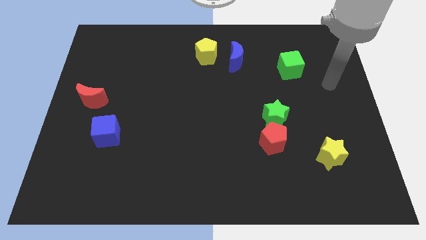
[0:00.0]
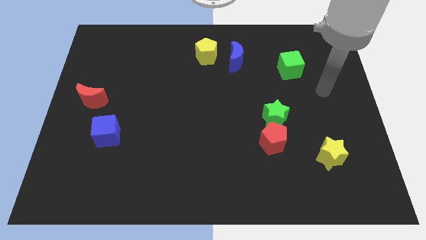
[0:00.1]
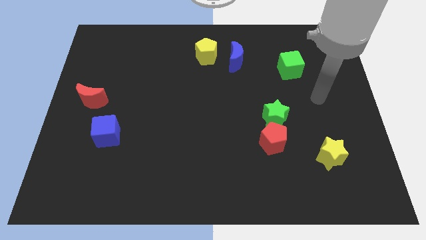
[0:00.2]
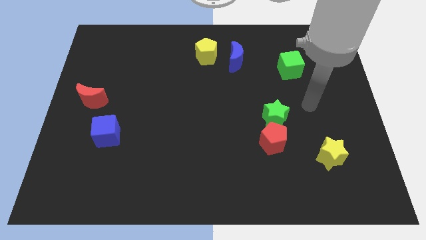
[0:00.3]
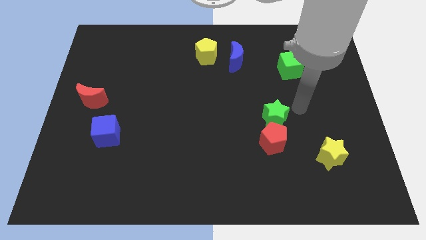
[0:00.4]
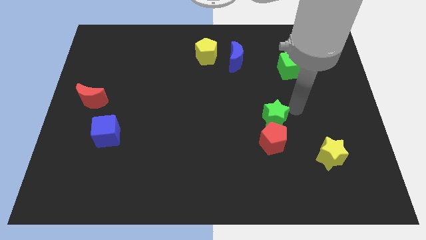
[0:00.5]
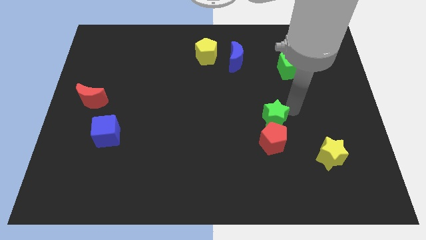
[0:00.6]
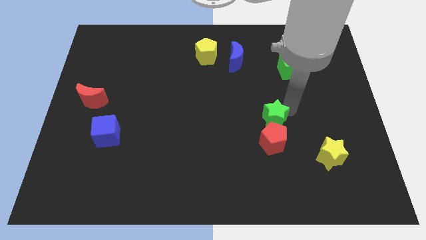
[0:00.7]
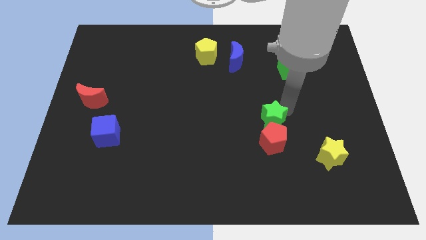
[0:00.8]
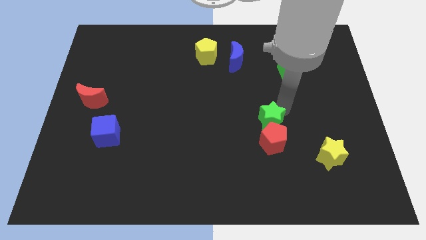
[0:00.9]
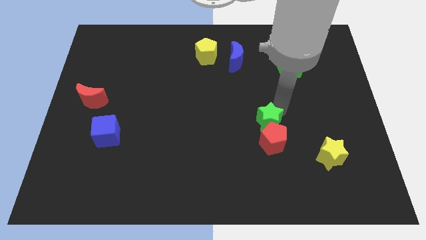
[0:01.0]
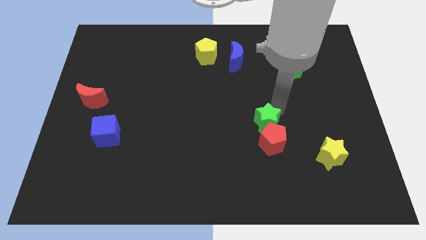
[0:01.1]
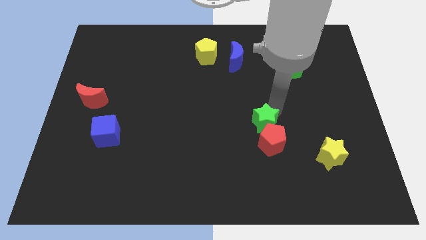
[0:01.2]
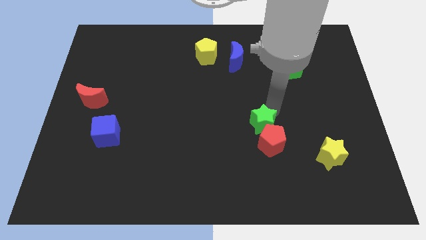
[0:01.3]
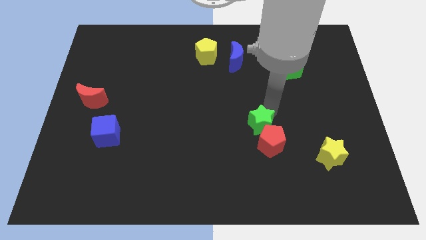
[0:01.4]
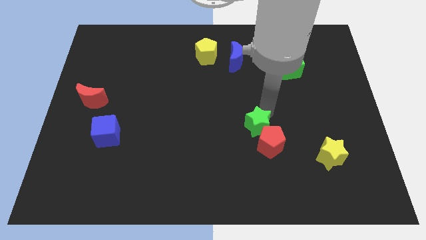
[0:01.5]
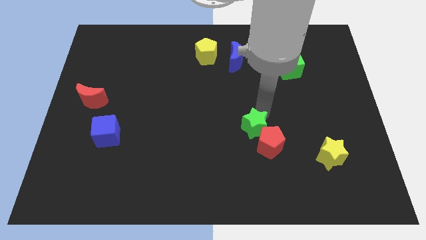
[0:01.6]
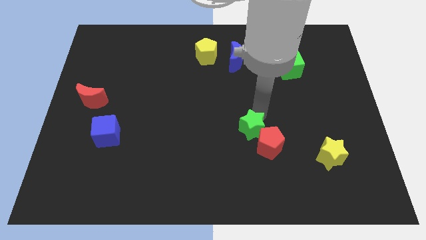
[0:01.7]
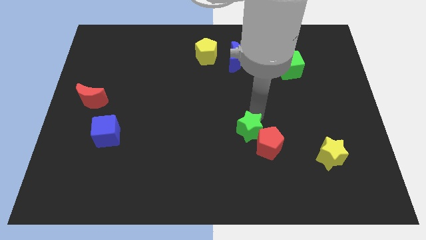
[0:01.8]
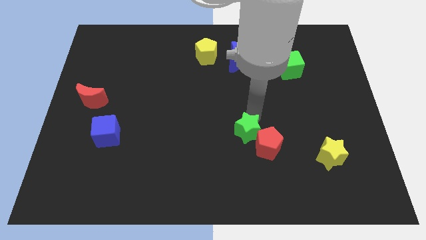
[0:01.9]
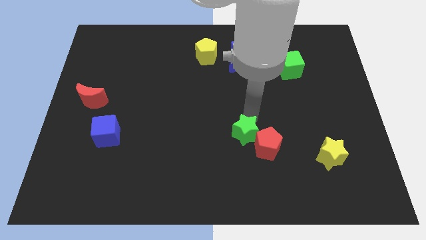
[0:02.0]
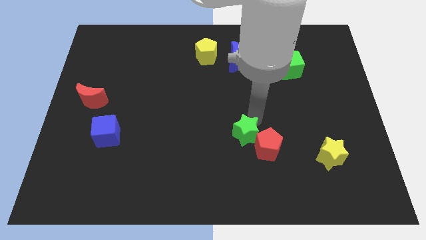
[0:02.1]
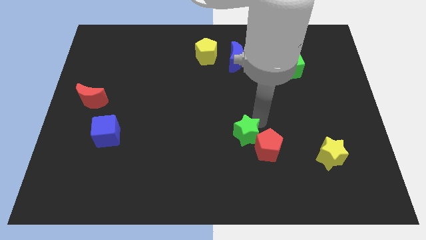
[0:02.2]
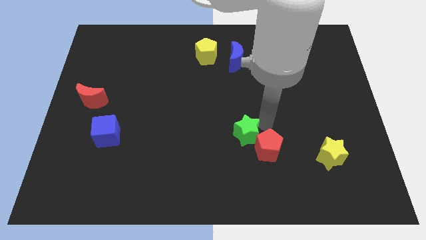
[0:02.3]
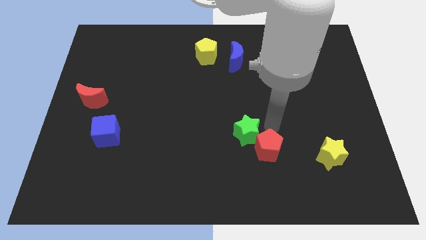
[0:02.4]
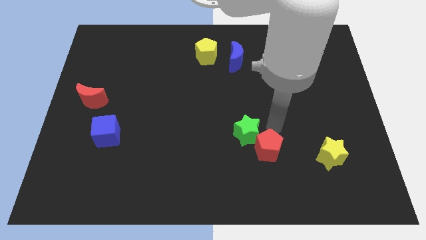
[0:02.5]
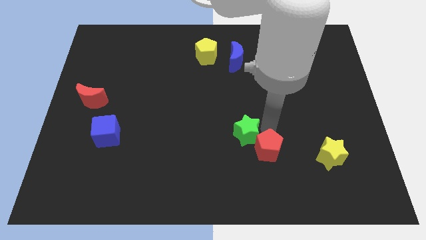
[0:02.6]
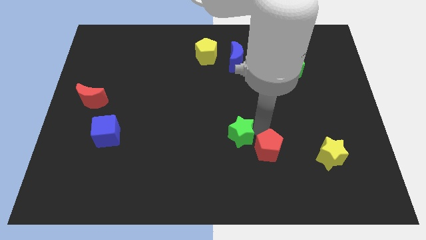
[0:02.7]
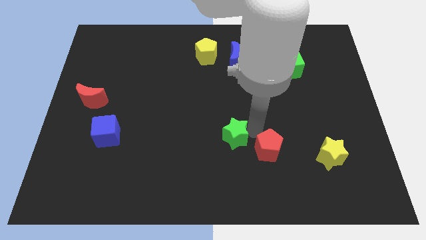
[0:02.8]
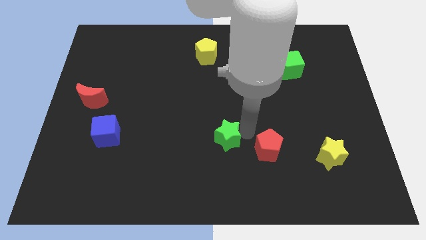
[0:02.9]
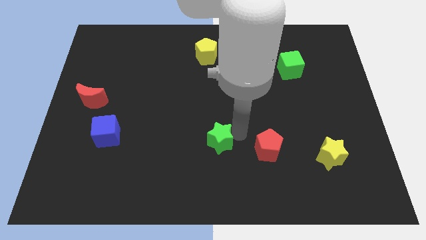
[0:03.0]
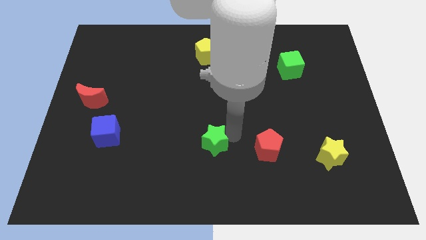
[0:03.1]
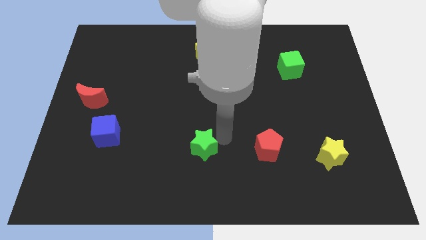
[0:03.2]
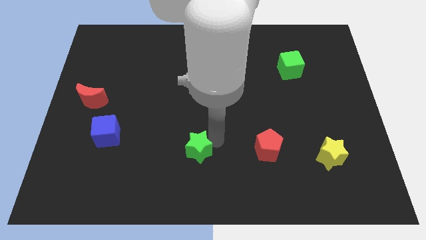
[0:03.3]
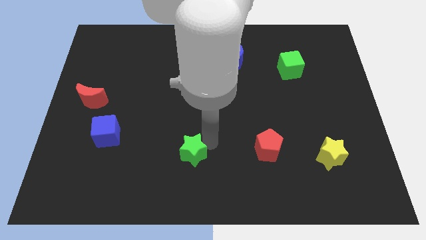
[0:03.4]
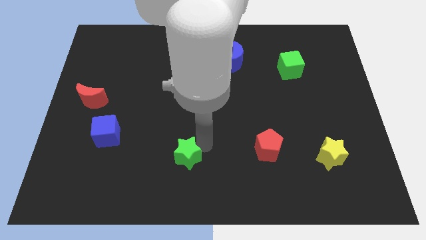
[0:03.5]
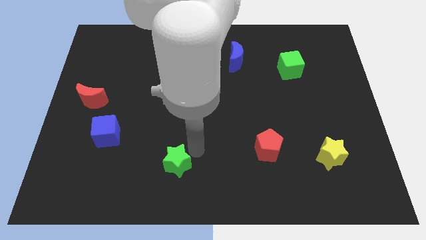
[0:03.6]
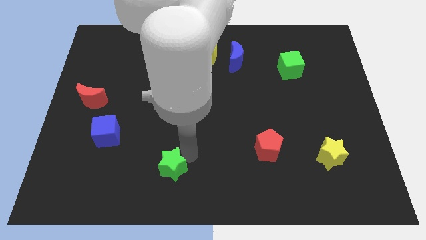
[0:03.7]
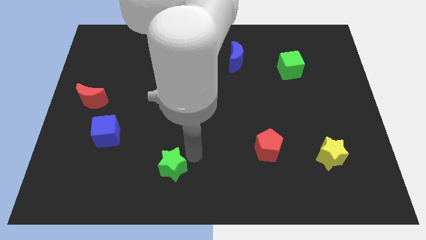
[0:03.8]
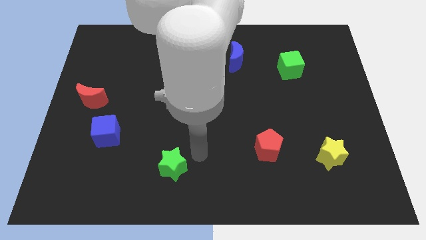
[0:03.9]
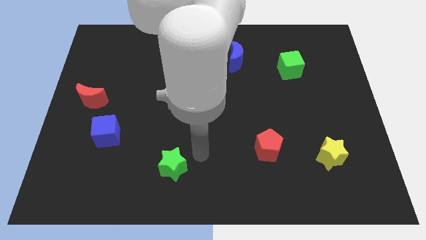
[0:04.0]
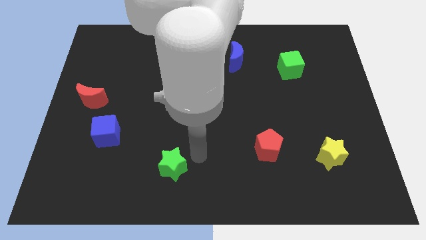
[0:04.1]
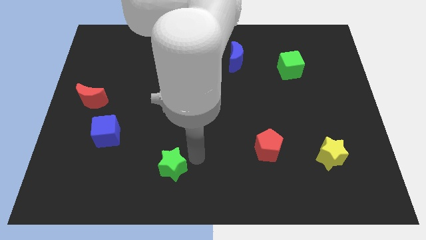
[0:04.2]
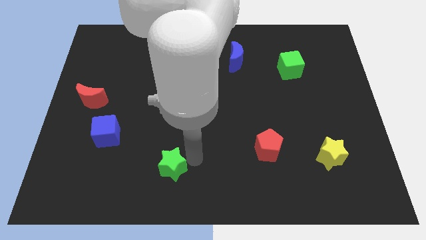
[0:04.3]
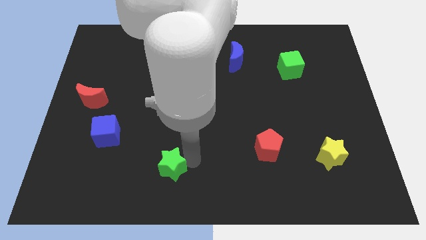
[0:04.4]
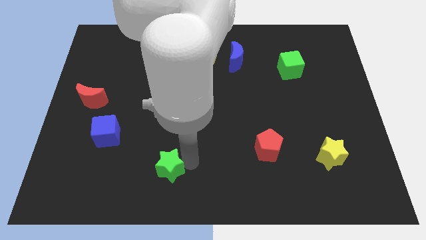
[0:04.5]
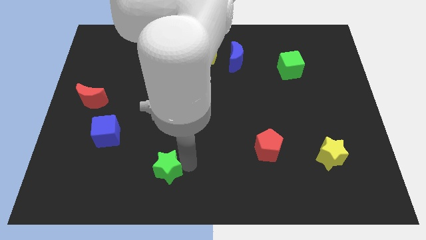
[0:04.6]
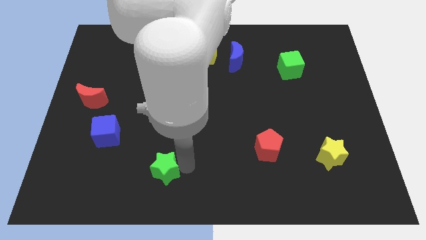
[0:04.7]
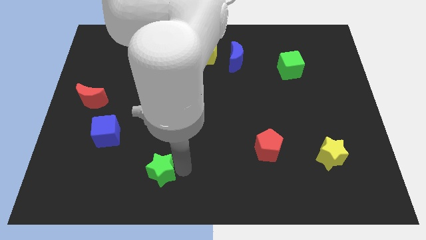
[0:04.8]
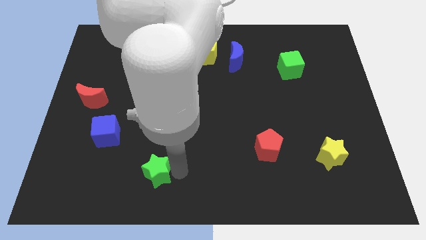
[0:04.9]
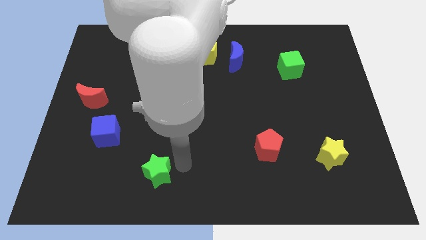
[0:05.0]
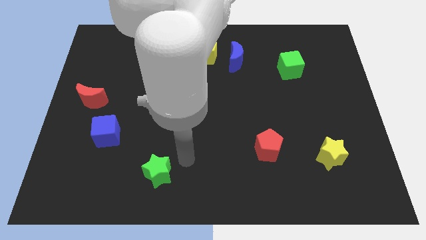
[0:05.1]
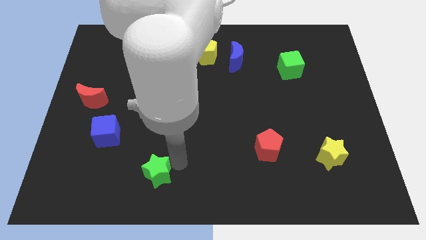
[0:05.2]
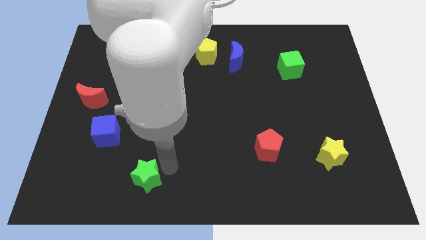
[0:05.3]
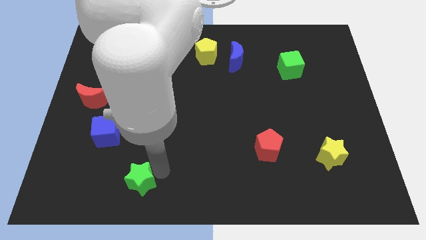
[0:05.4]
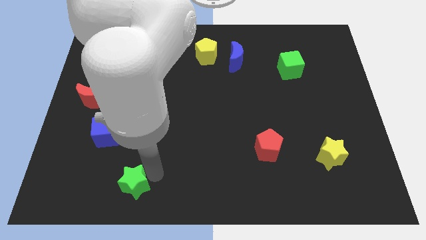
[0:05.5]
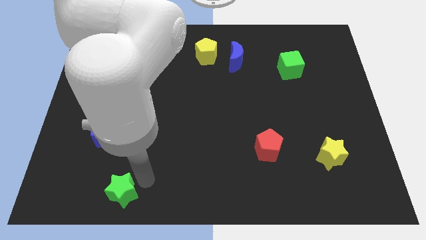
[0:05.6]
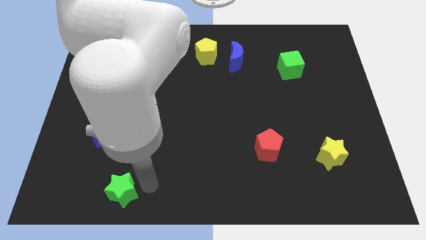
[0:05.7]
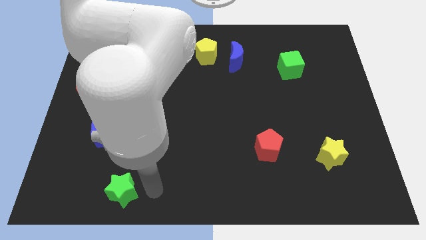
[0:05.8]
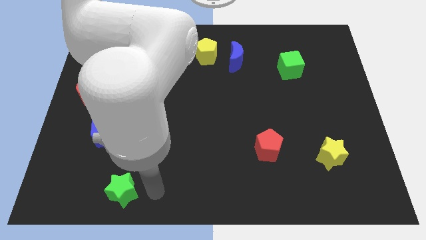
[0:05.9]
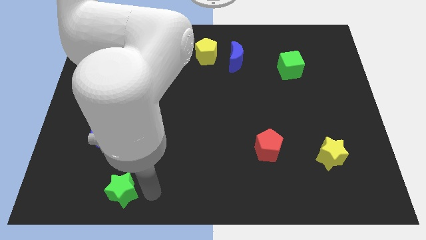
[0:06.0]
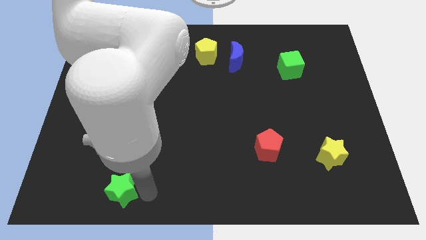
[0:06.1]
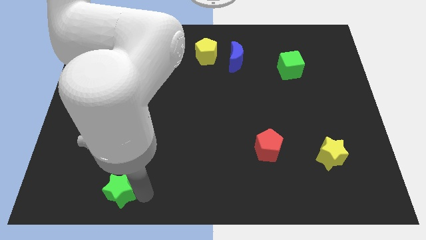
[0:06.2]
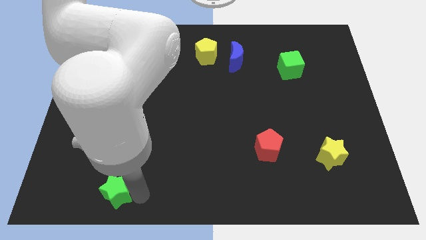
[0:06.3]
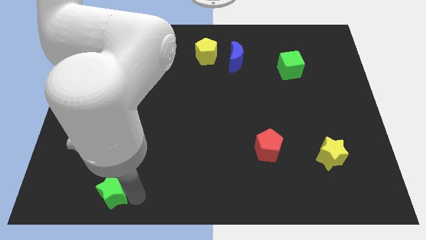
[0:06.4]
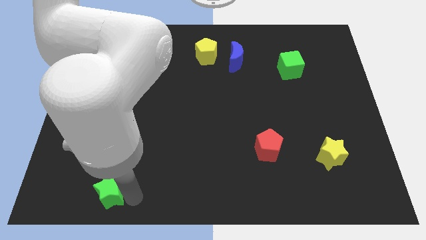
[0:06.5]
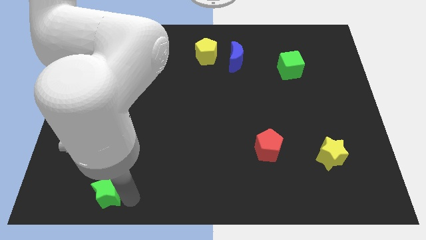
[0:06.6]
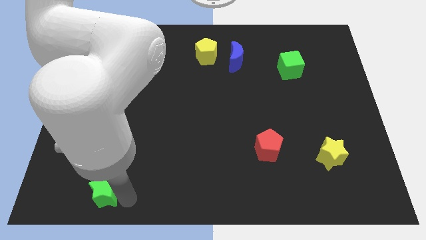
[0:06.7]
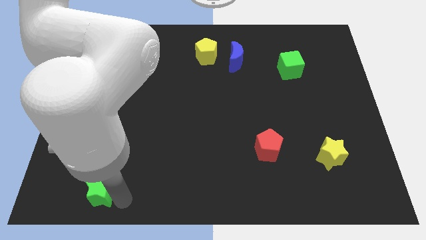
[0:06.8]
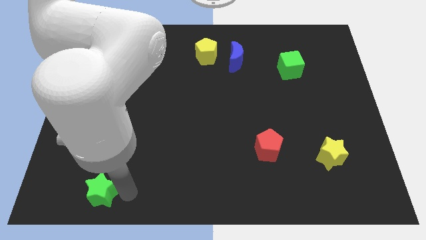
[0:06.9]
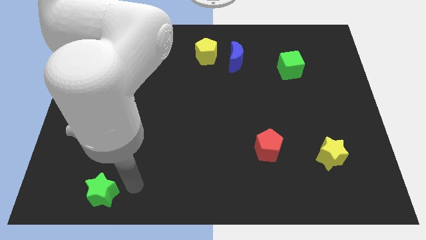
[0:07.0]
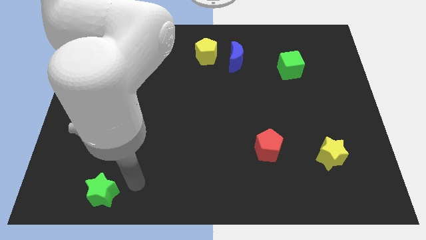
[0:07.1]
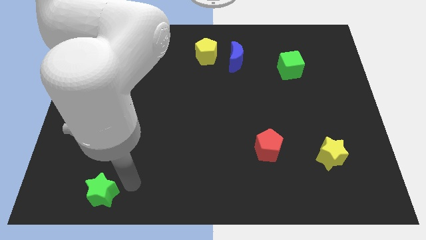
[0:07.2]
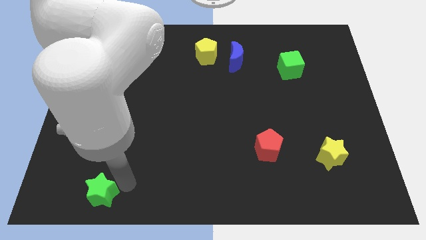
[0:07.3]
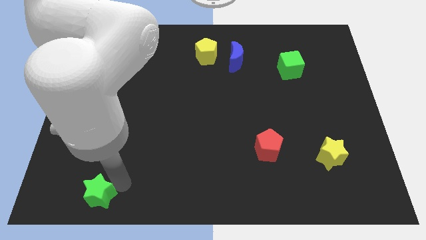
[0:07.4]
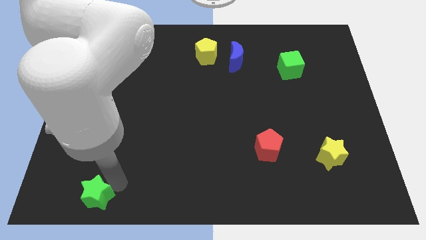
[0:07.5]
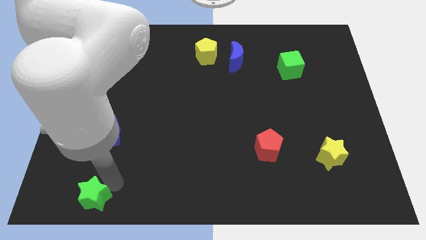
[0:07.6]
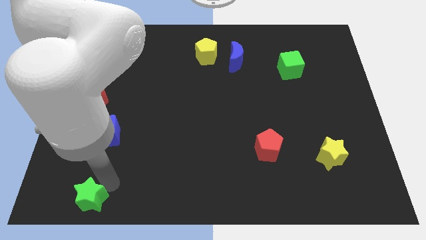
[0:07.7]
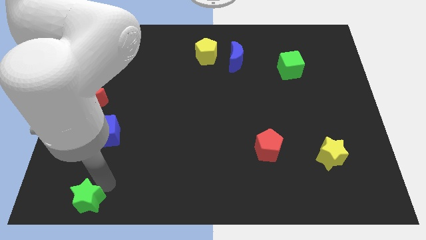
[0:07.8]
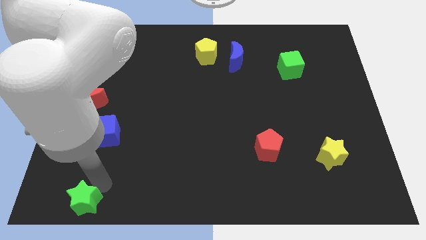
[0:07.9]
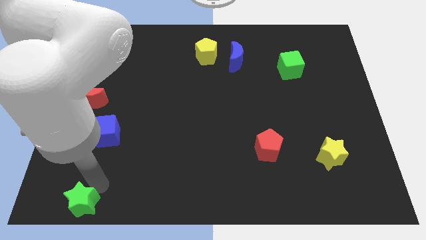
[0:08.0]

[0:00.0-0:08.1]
put the green star to the bottom left of the board
